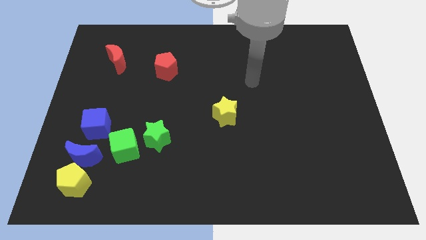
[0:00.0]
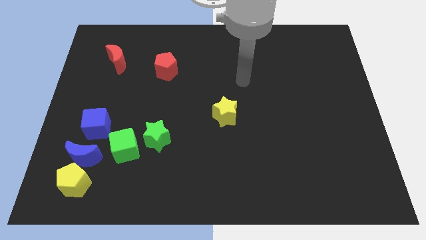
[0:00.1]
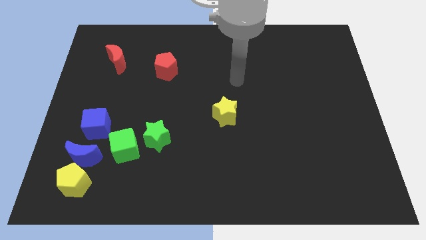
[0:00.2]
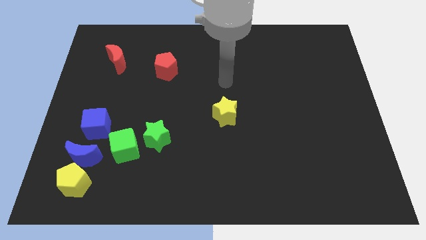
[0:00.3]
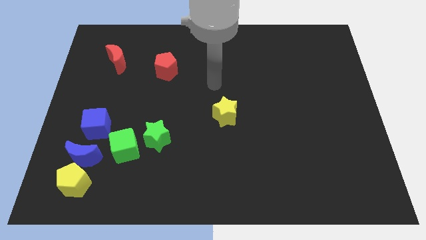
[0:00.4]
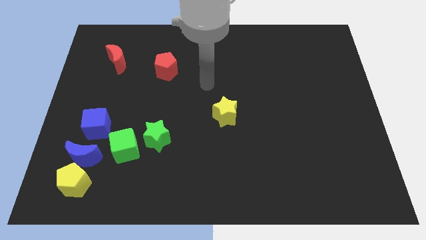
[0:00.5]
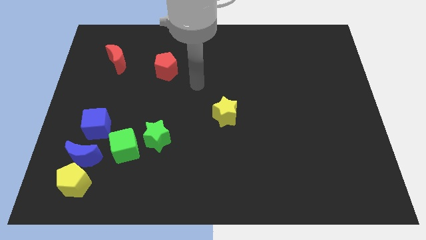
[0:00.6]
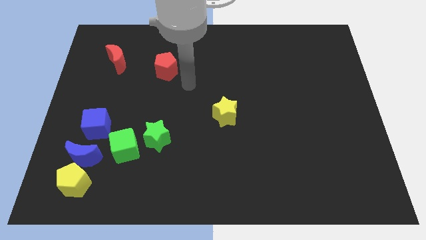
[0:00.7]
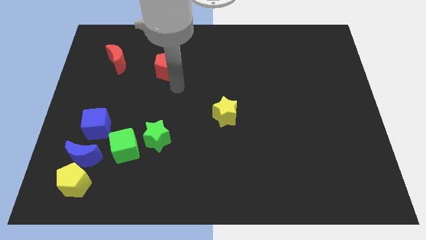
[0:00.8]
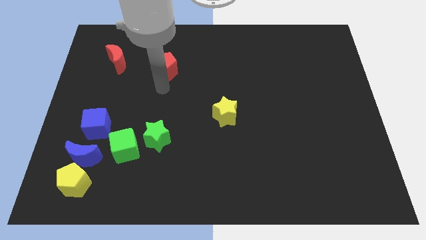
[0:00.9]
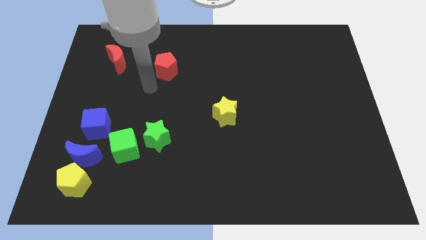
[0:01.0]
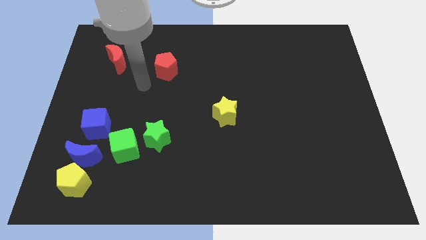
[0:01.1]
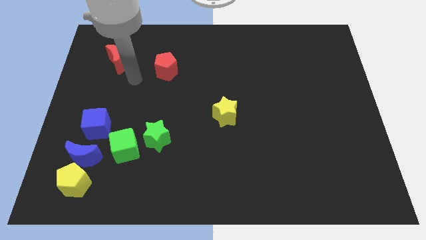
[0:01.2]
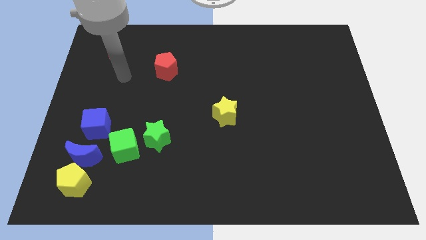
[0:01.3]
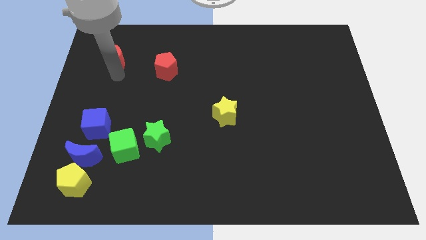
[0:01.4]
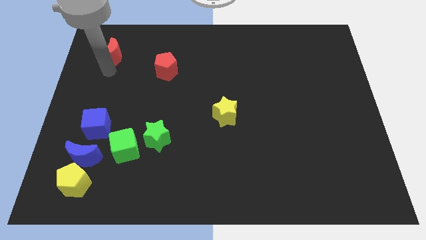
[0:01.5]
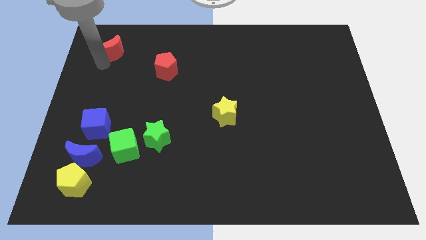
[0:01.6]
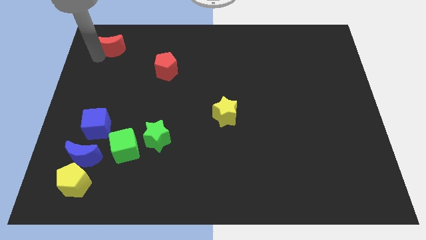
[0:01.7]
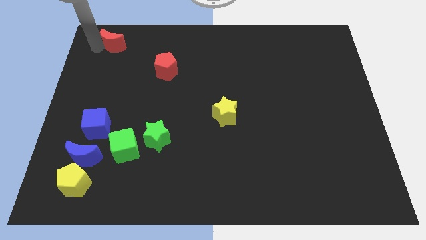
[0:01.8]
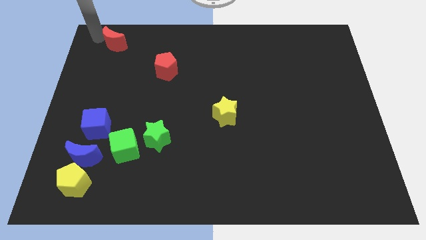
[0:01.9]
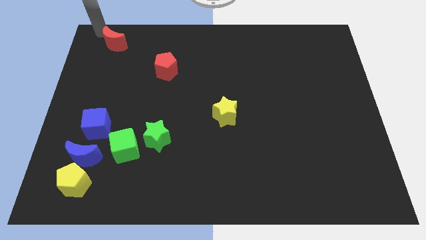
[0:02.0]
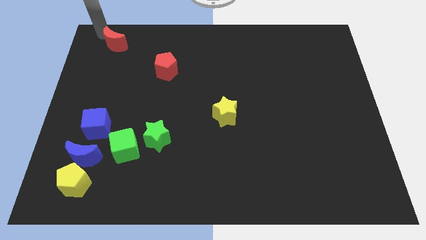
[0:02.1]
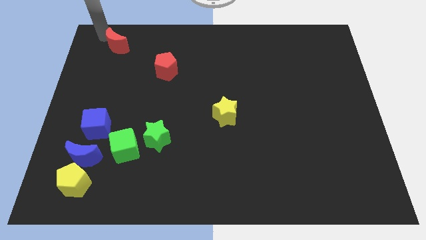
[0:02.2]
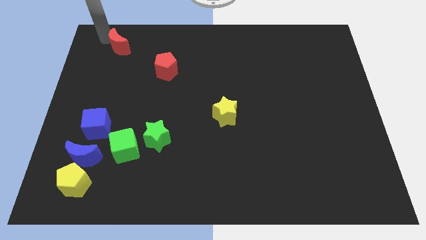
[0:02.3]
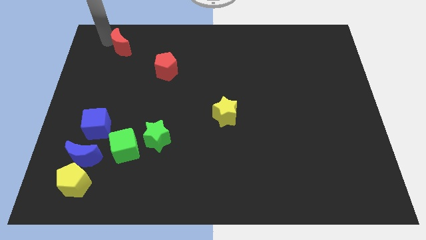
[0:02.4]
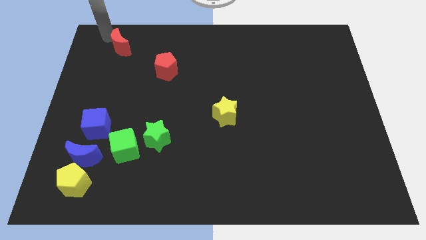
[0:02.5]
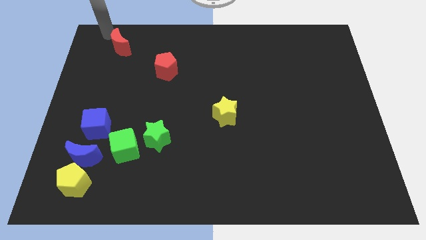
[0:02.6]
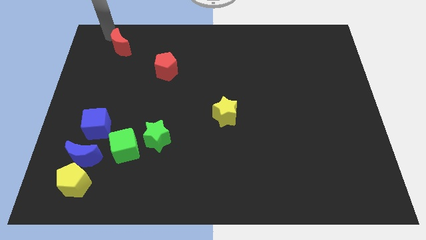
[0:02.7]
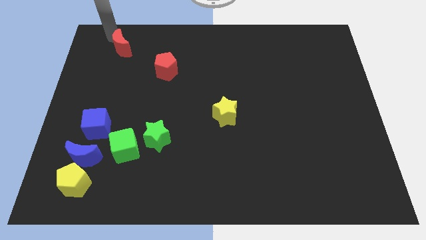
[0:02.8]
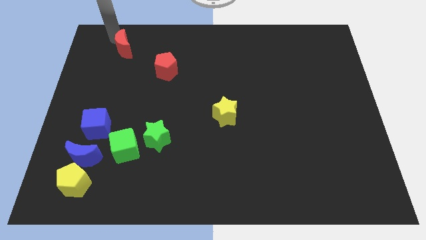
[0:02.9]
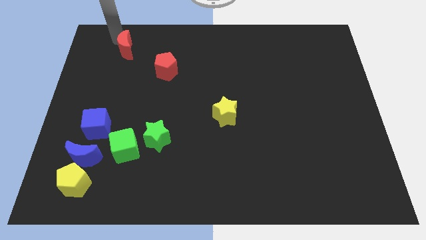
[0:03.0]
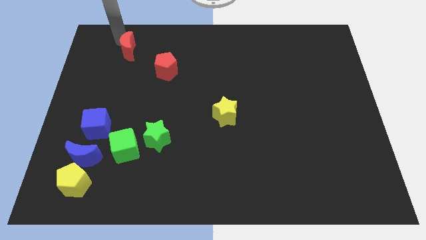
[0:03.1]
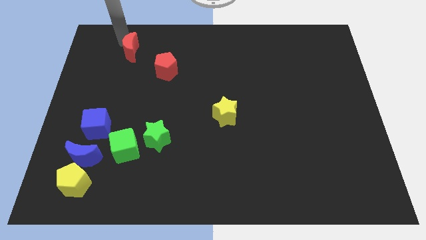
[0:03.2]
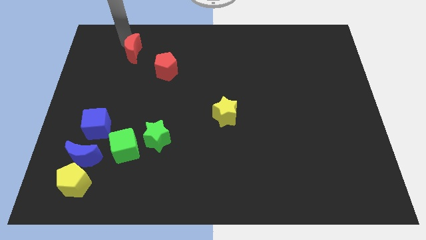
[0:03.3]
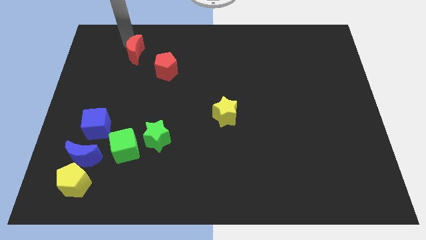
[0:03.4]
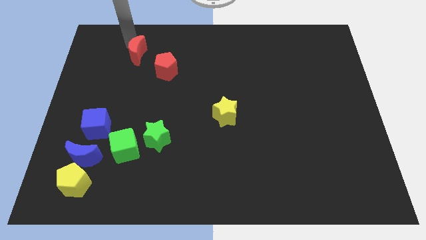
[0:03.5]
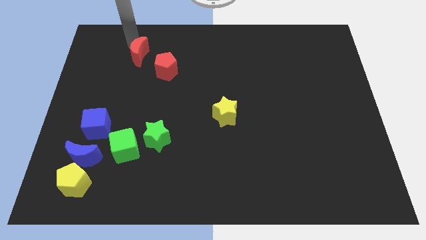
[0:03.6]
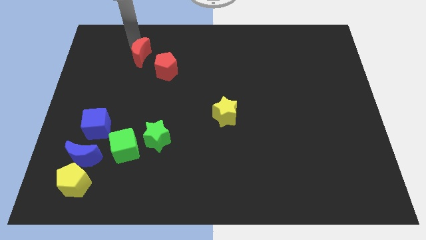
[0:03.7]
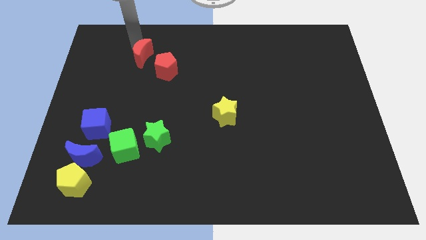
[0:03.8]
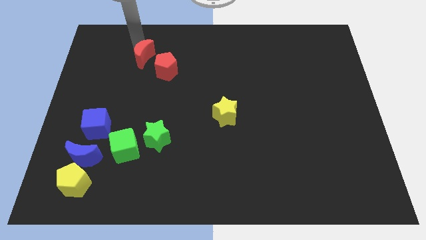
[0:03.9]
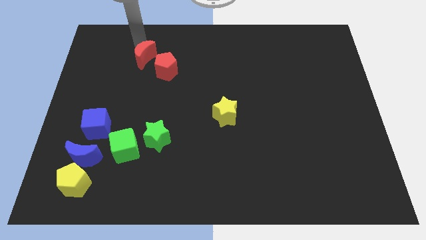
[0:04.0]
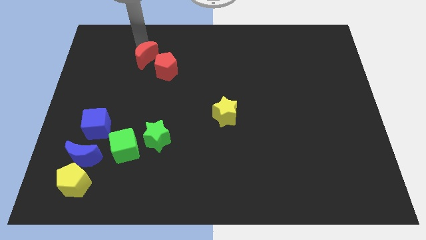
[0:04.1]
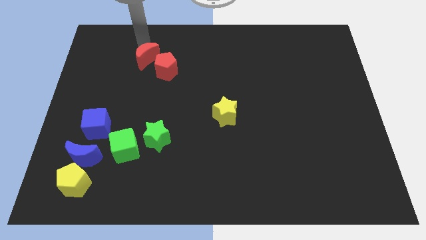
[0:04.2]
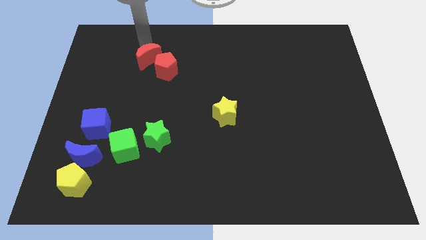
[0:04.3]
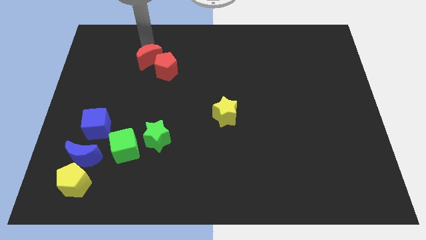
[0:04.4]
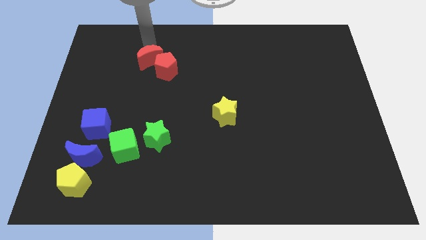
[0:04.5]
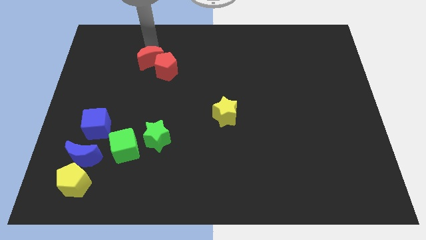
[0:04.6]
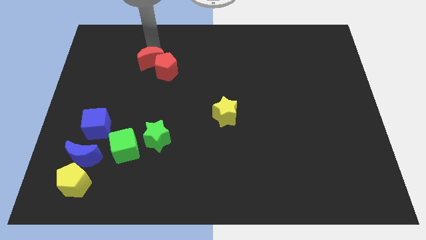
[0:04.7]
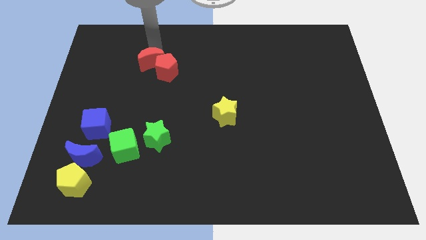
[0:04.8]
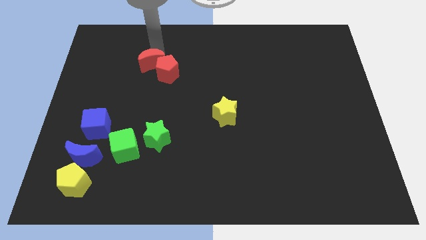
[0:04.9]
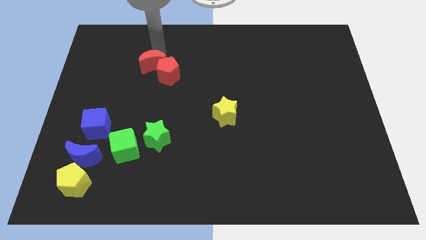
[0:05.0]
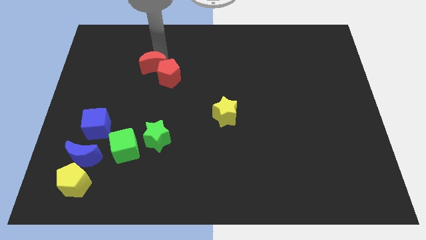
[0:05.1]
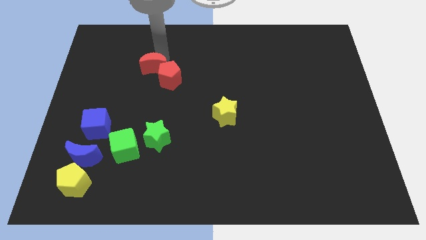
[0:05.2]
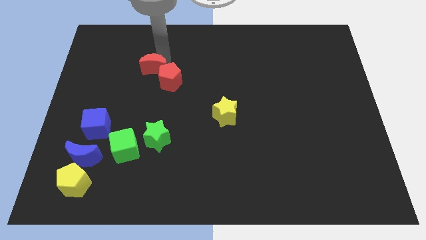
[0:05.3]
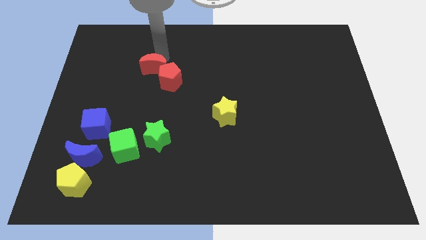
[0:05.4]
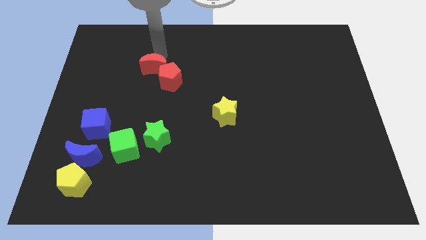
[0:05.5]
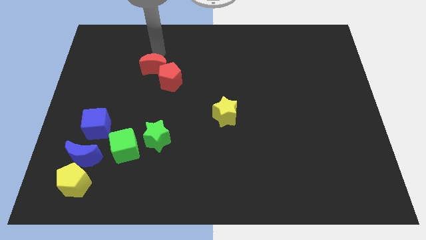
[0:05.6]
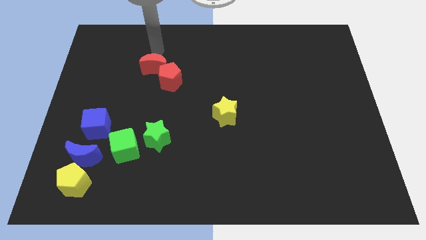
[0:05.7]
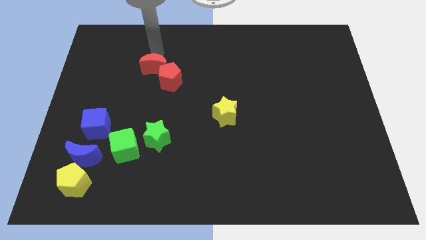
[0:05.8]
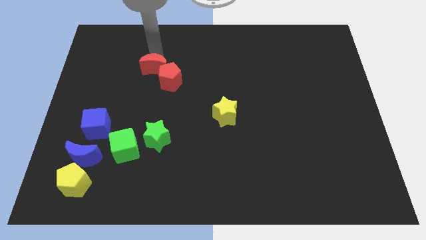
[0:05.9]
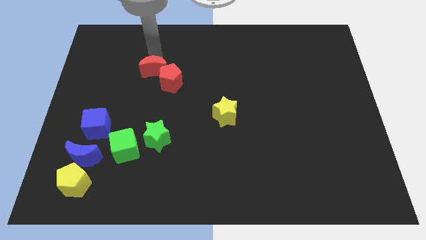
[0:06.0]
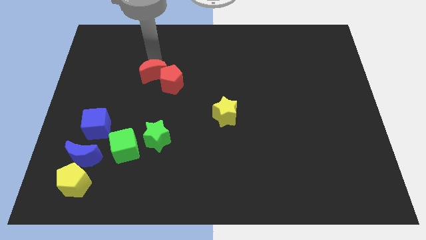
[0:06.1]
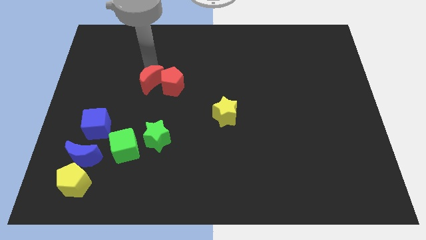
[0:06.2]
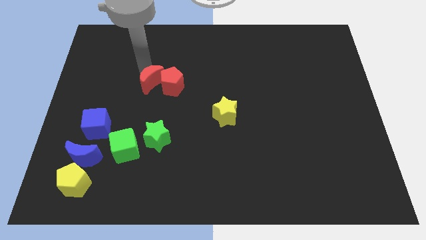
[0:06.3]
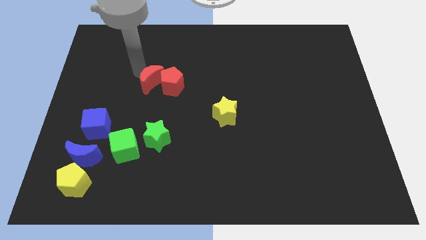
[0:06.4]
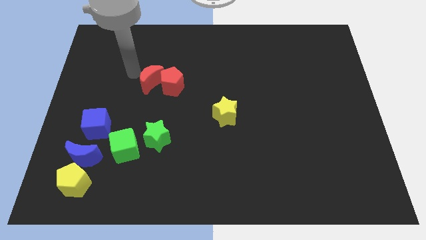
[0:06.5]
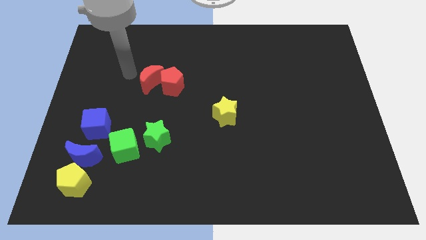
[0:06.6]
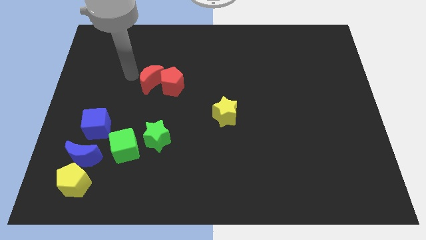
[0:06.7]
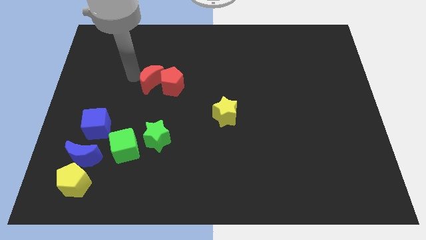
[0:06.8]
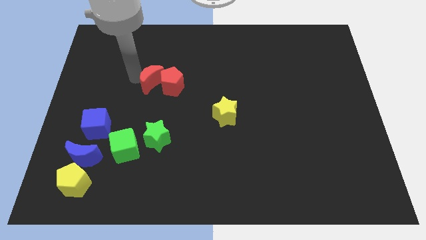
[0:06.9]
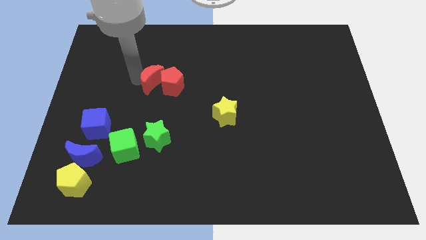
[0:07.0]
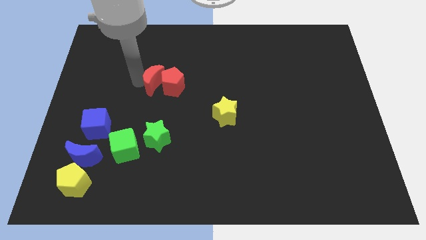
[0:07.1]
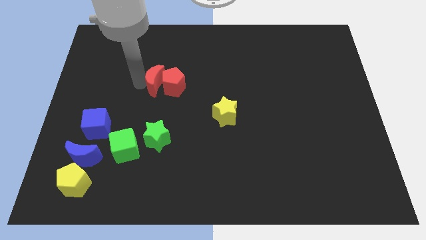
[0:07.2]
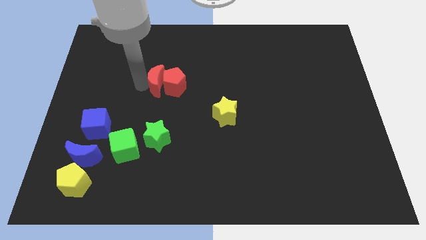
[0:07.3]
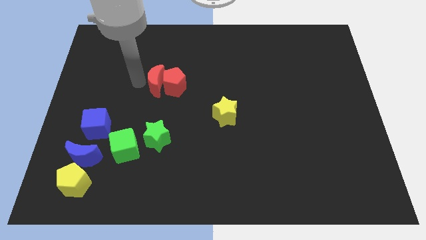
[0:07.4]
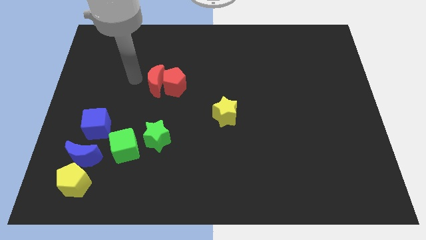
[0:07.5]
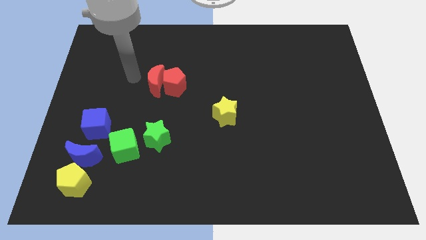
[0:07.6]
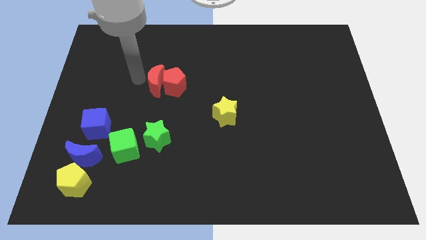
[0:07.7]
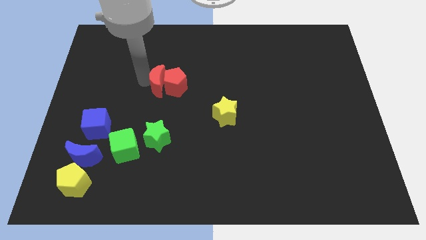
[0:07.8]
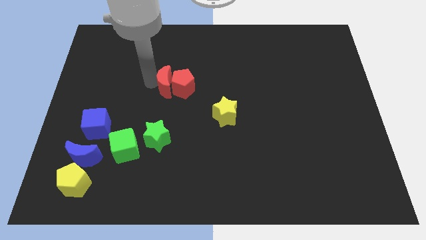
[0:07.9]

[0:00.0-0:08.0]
slide the red moon to the center
